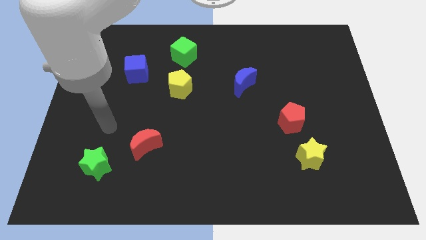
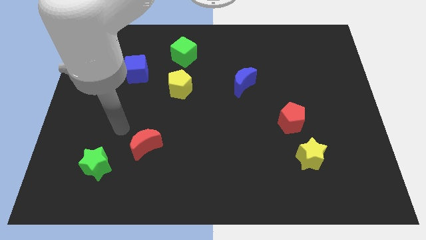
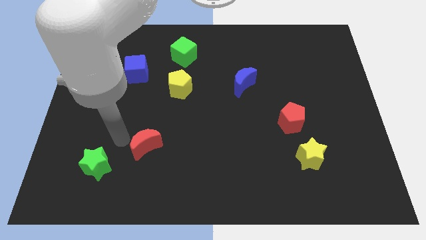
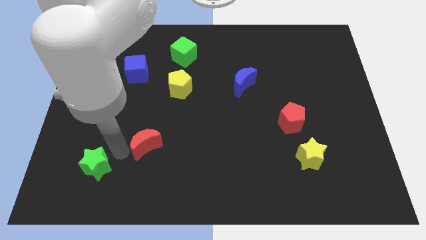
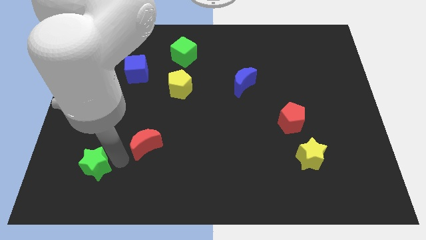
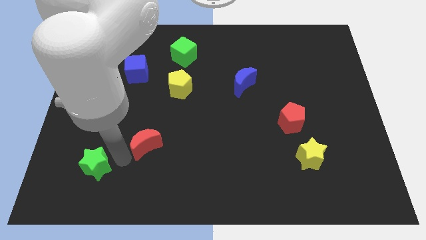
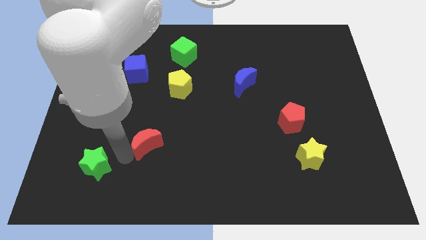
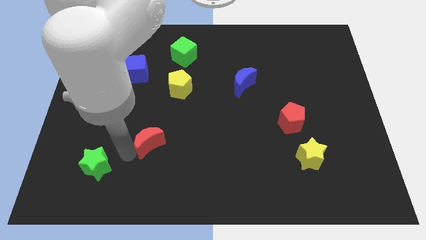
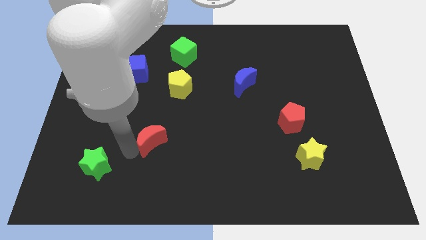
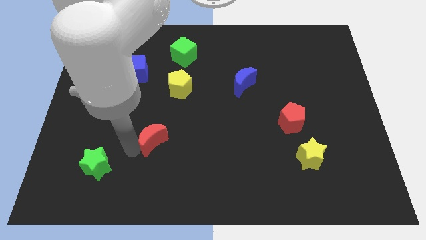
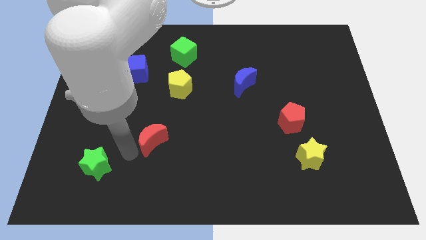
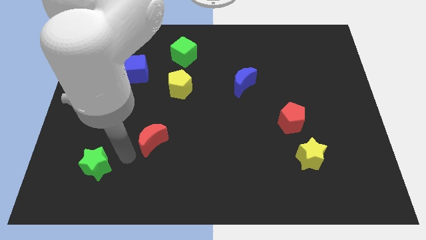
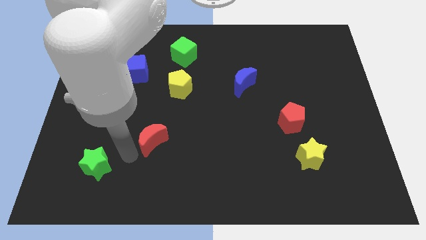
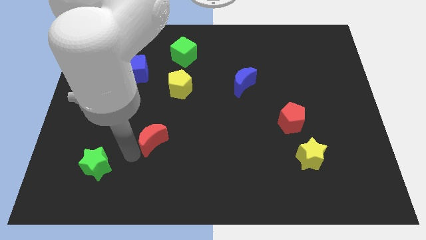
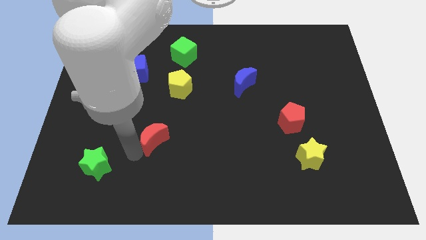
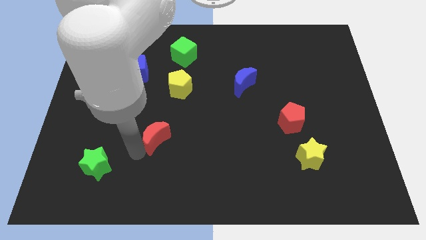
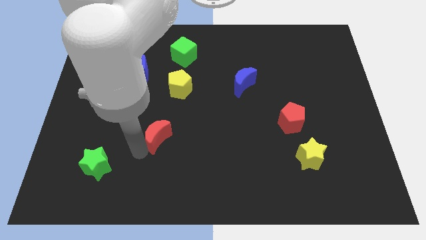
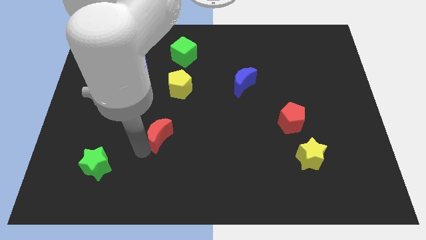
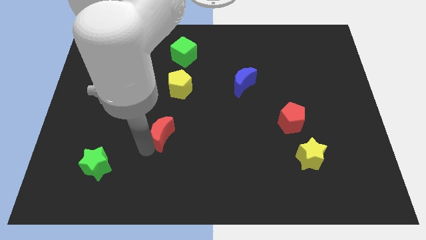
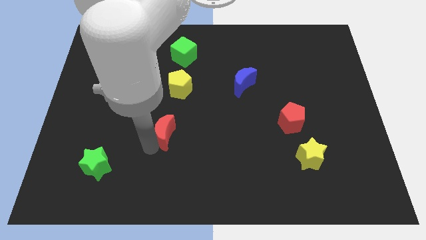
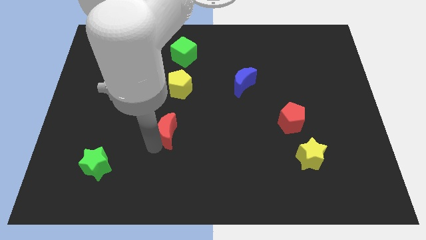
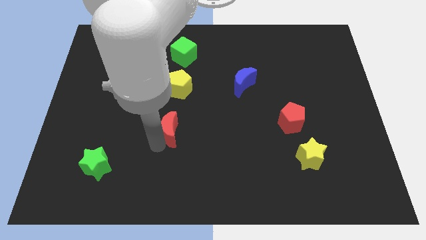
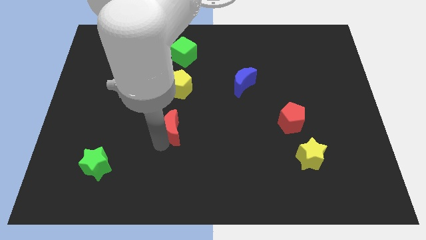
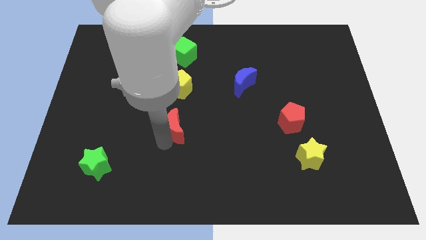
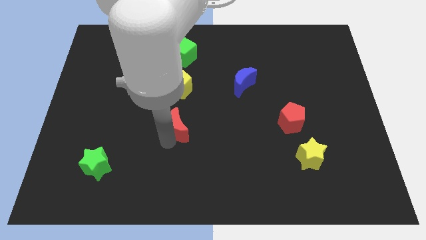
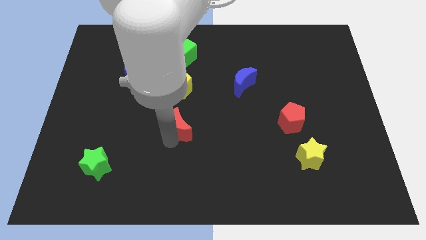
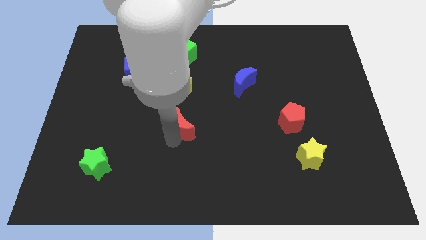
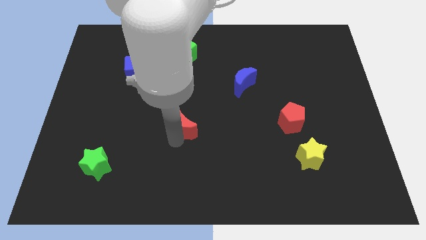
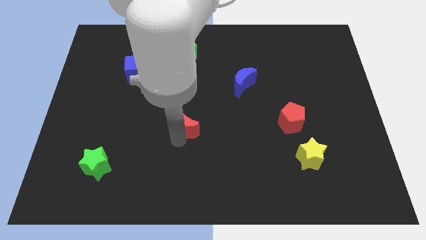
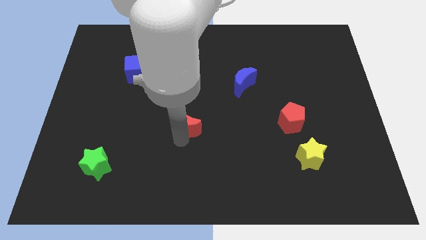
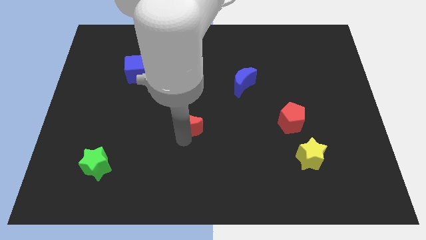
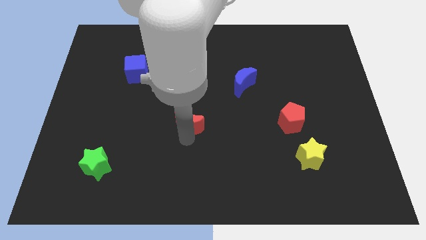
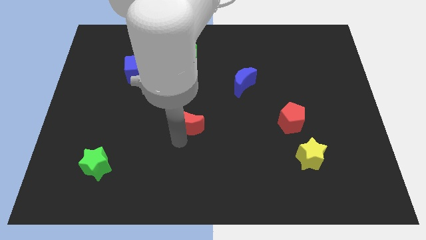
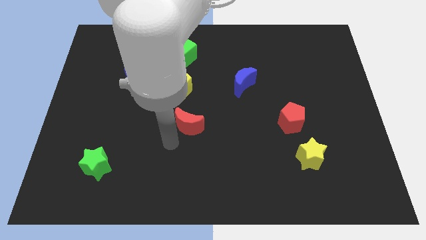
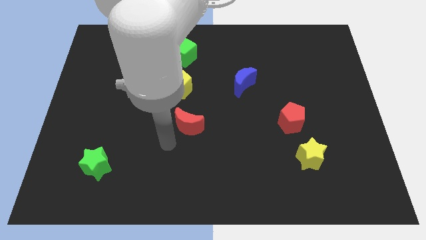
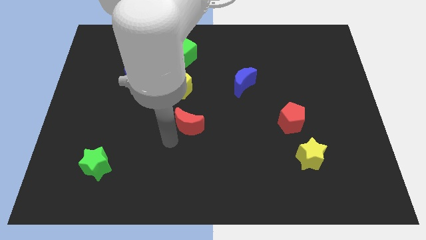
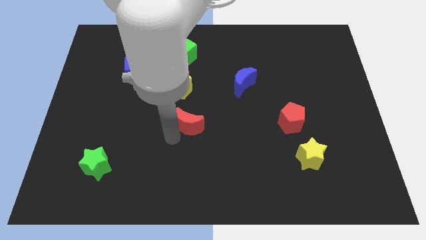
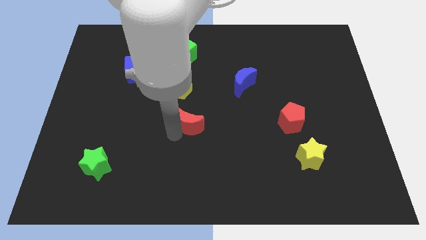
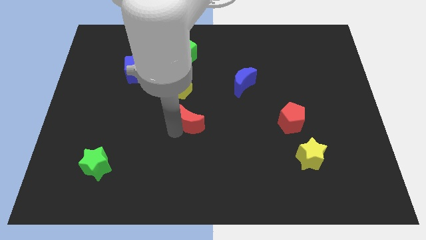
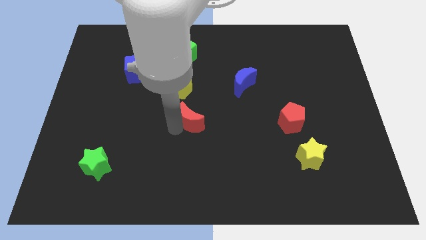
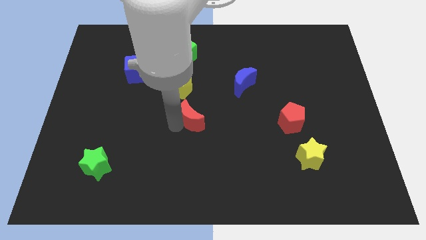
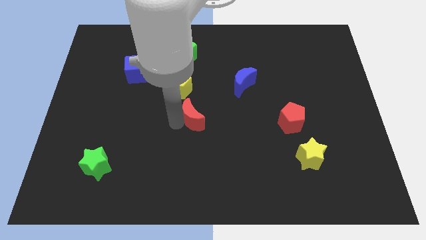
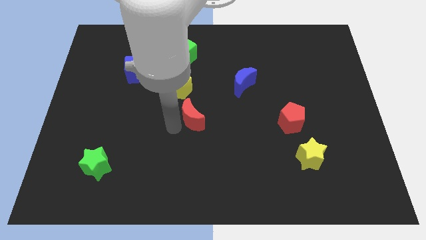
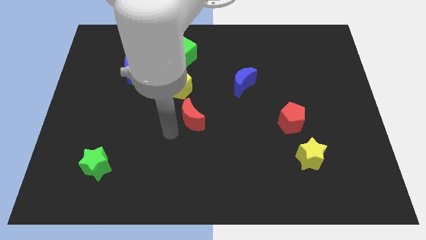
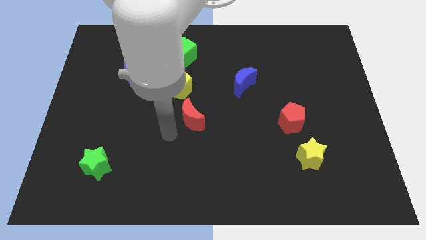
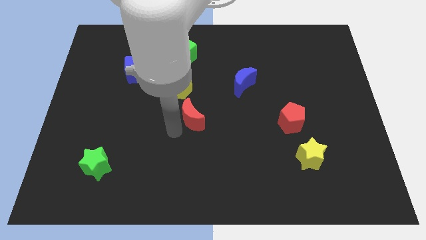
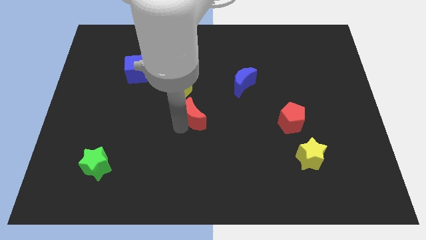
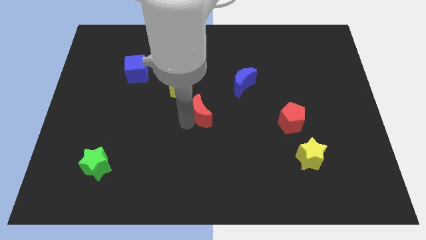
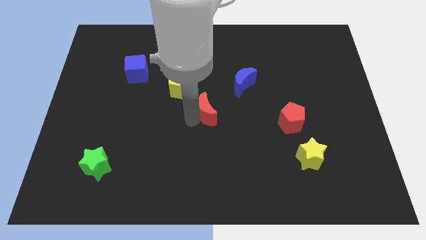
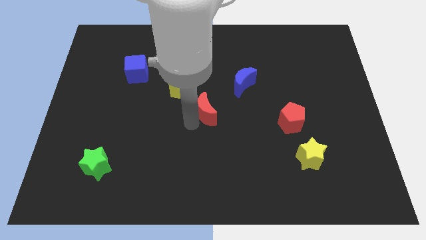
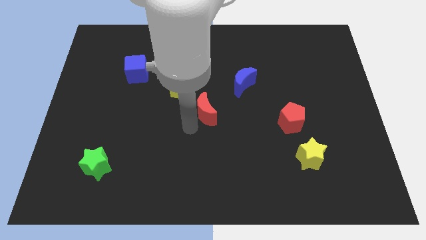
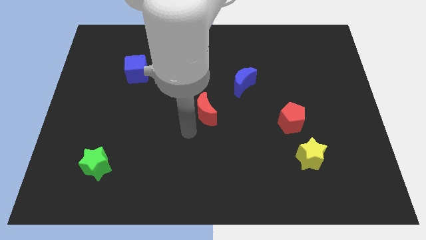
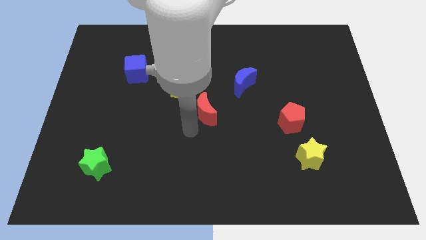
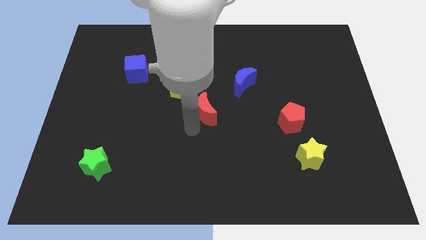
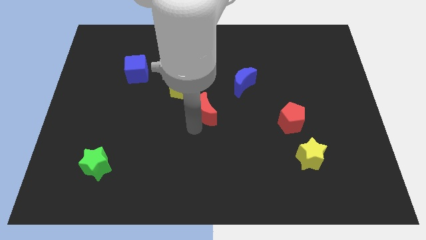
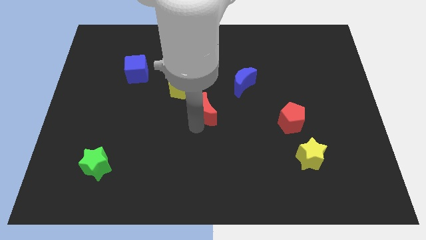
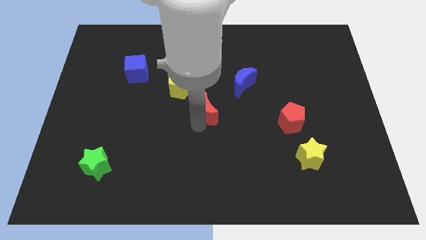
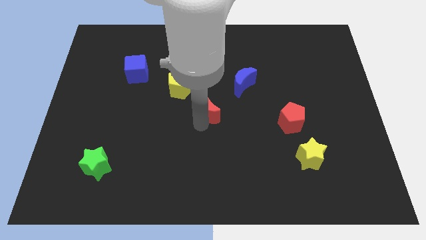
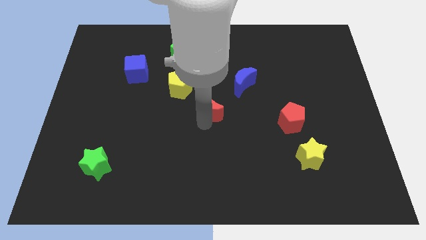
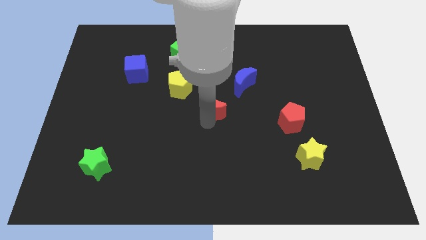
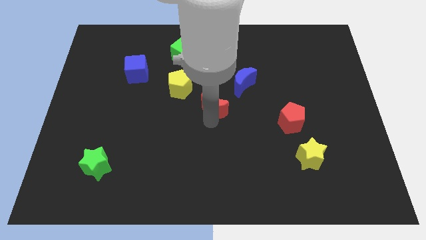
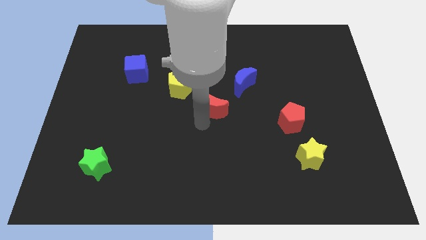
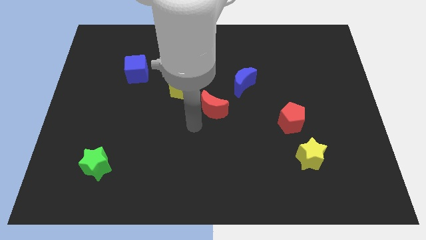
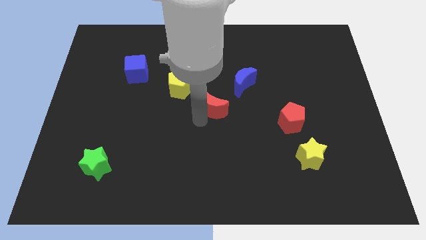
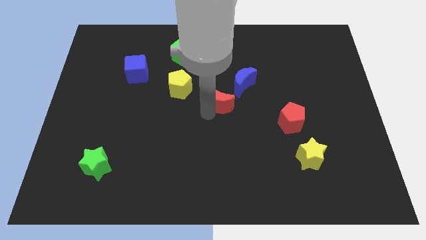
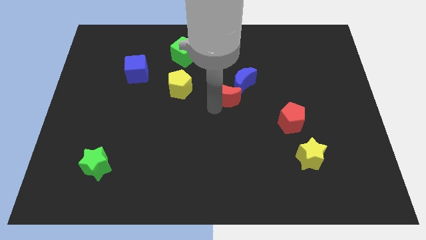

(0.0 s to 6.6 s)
move the red moon next to the blue moon
